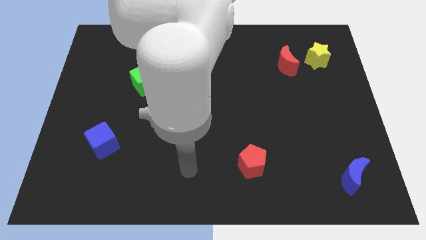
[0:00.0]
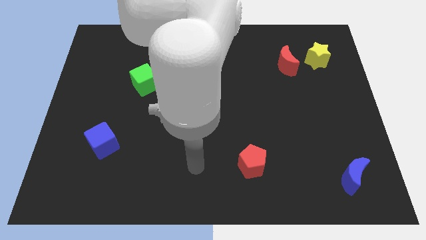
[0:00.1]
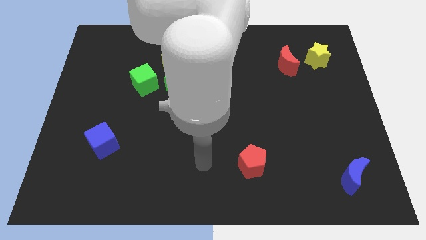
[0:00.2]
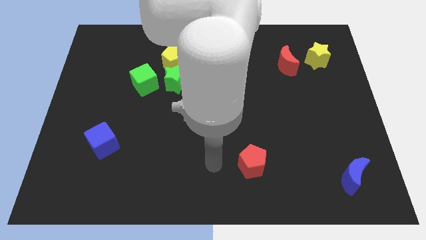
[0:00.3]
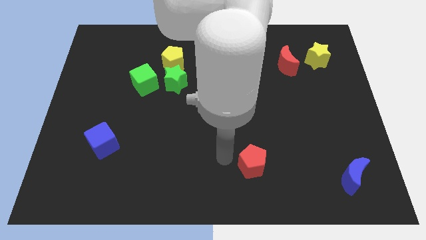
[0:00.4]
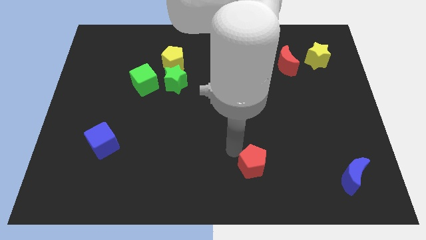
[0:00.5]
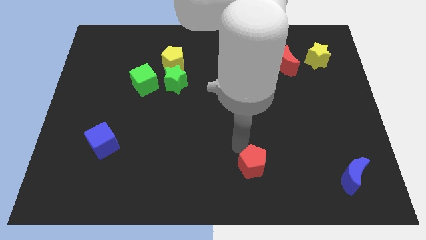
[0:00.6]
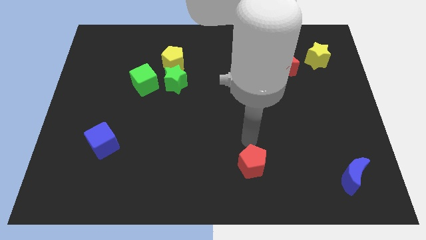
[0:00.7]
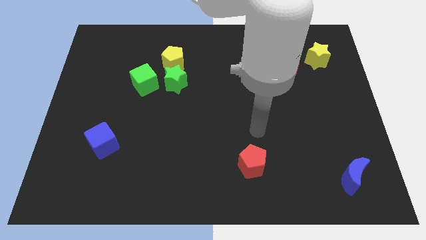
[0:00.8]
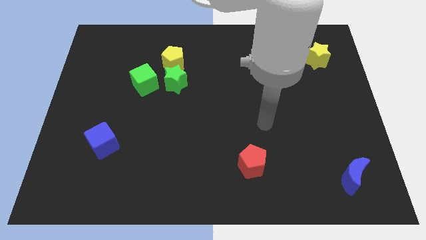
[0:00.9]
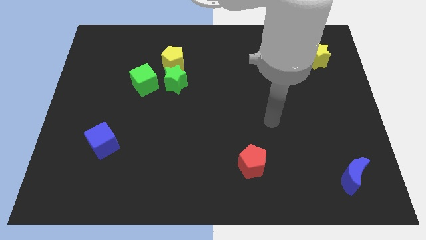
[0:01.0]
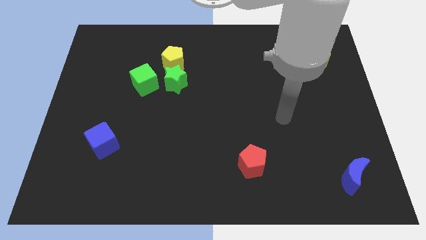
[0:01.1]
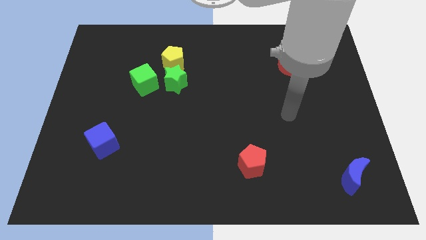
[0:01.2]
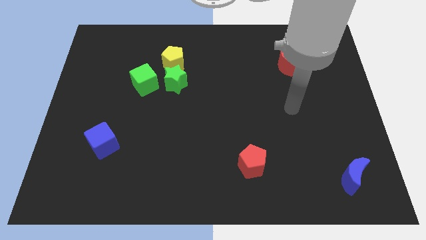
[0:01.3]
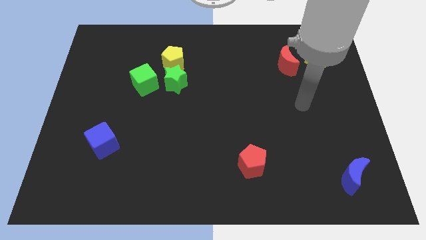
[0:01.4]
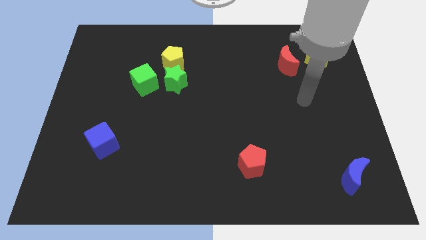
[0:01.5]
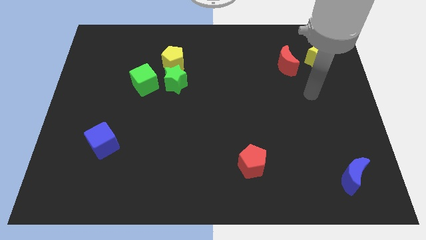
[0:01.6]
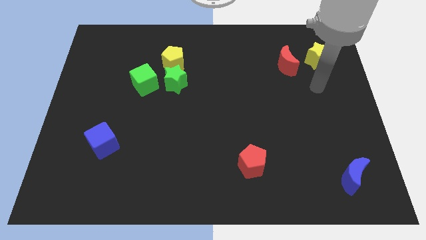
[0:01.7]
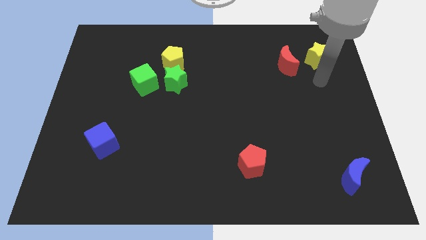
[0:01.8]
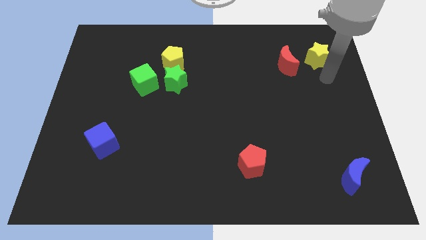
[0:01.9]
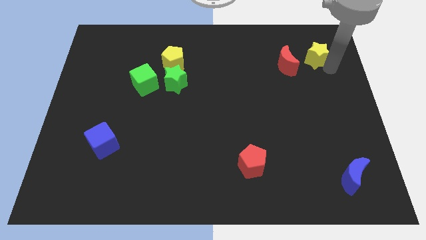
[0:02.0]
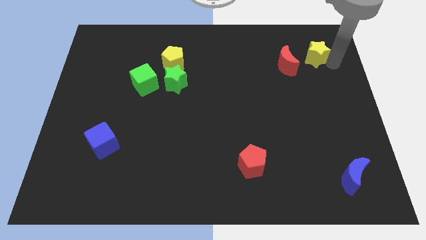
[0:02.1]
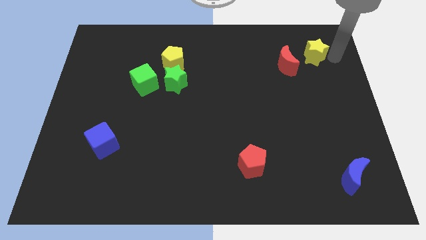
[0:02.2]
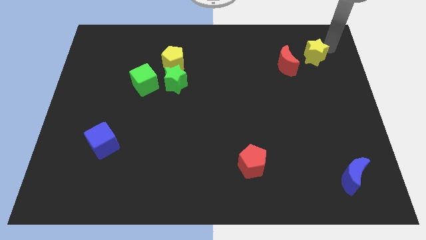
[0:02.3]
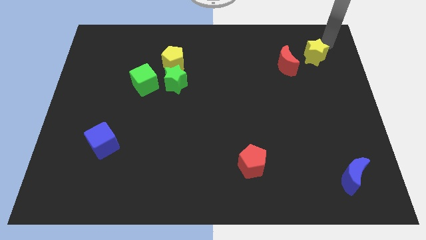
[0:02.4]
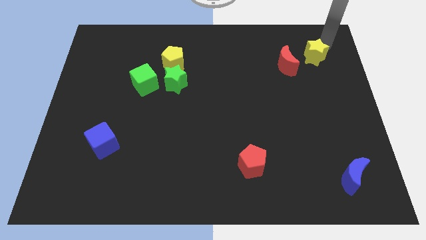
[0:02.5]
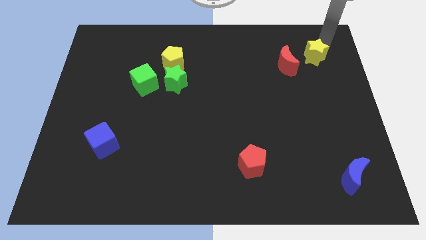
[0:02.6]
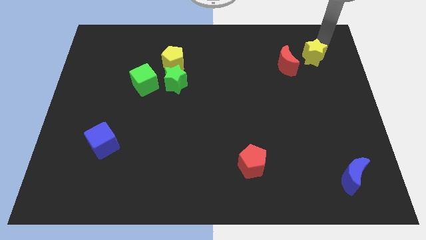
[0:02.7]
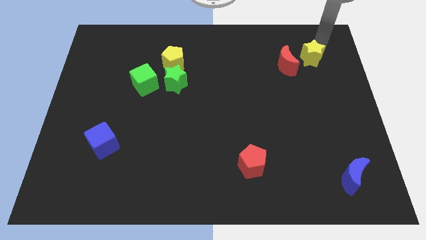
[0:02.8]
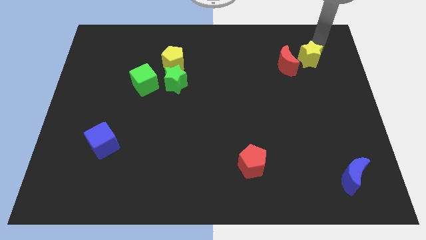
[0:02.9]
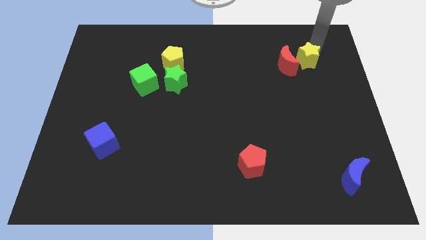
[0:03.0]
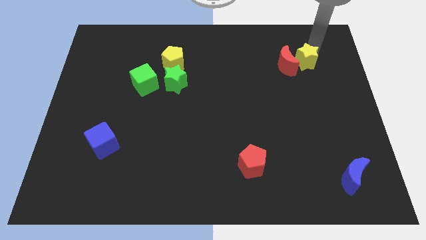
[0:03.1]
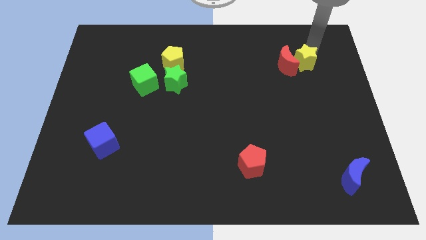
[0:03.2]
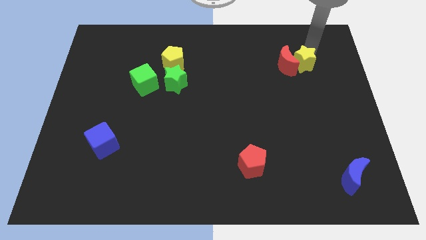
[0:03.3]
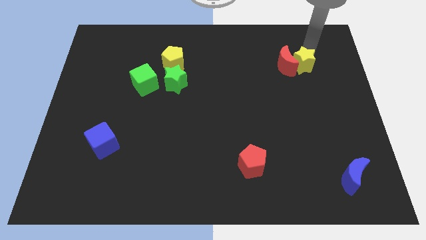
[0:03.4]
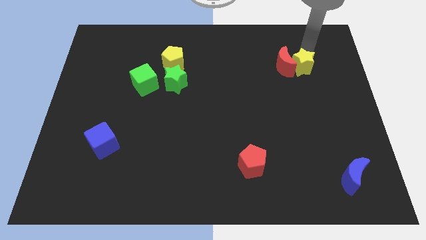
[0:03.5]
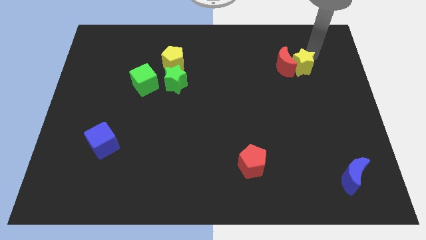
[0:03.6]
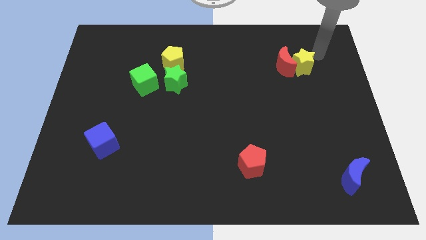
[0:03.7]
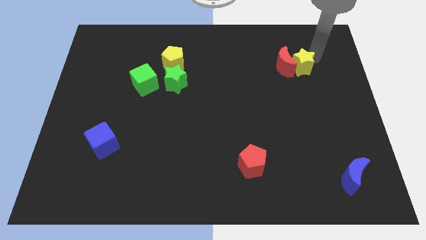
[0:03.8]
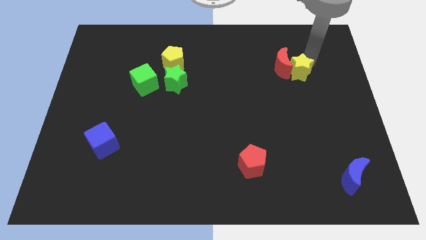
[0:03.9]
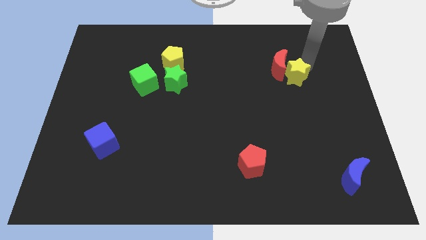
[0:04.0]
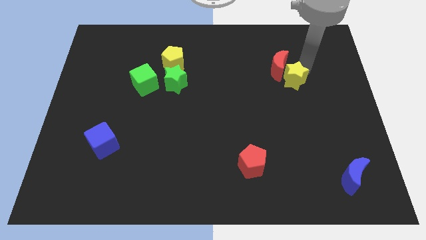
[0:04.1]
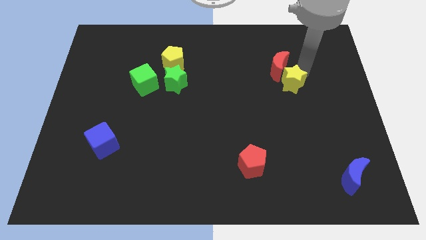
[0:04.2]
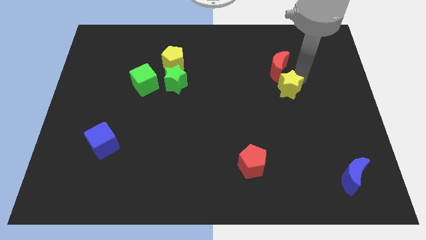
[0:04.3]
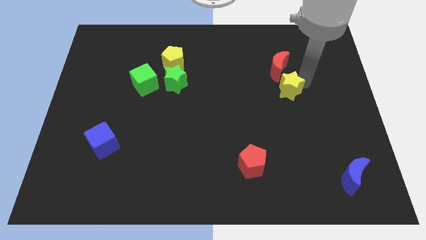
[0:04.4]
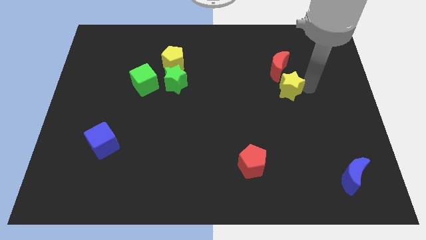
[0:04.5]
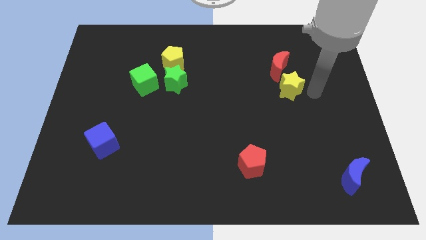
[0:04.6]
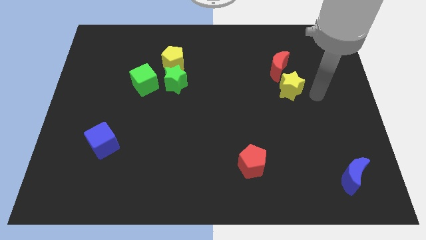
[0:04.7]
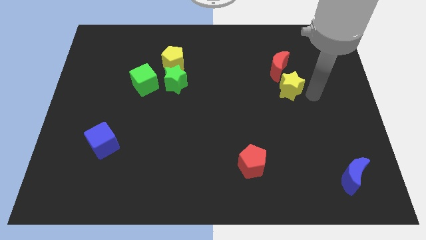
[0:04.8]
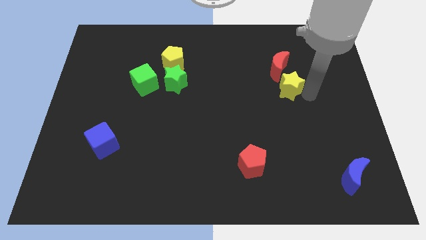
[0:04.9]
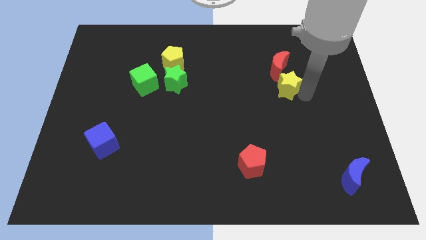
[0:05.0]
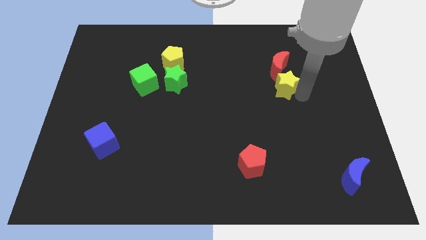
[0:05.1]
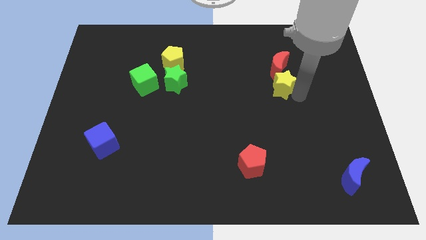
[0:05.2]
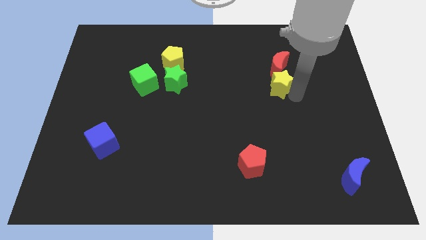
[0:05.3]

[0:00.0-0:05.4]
move the yellow star diagonally down and to the left of the red moon

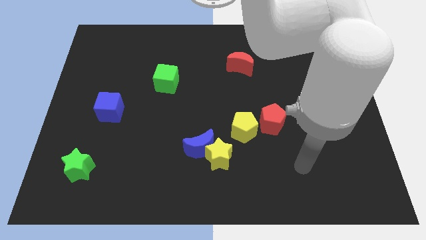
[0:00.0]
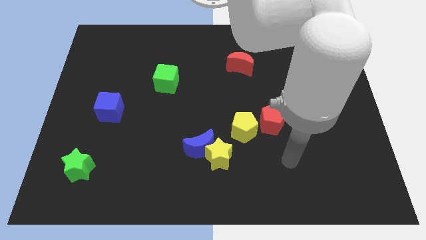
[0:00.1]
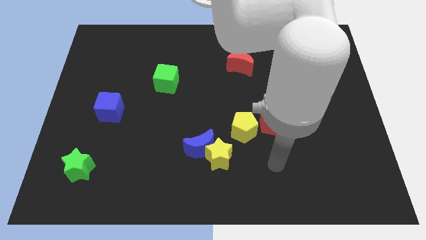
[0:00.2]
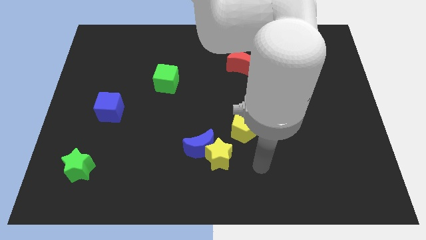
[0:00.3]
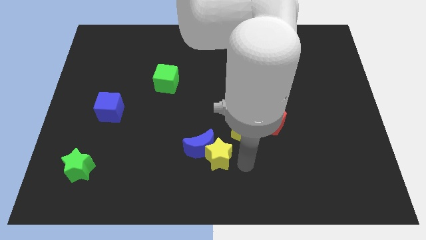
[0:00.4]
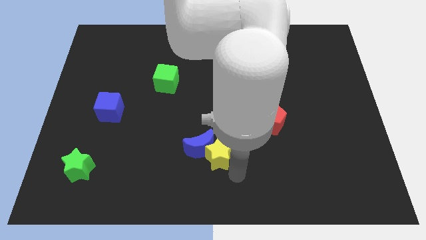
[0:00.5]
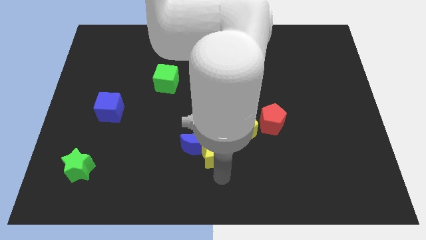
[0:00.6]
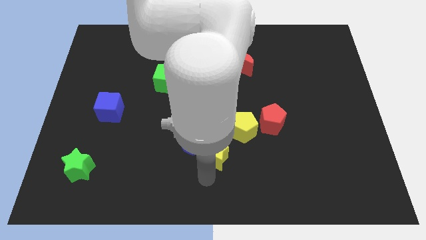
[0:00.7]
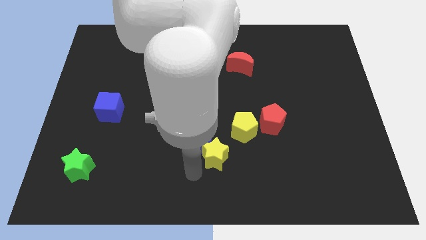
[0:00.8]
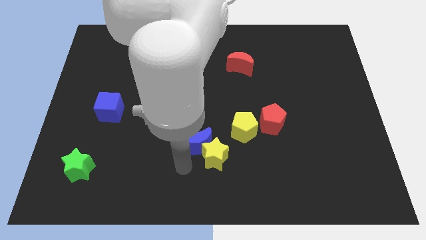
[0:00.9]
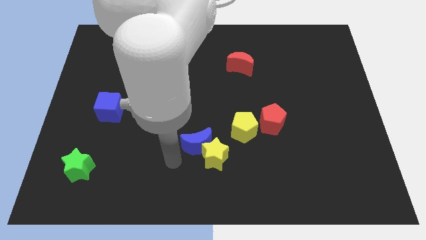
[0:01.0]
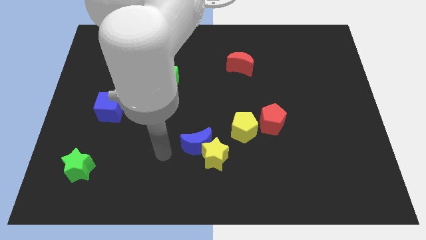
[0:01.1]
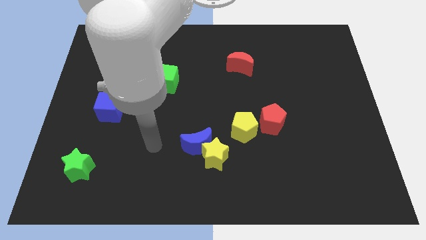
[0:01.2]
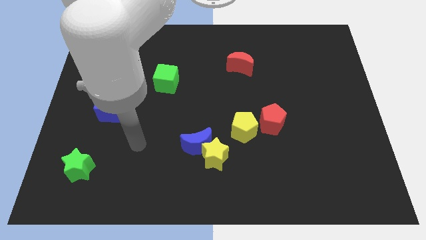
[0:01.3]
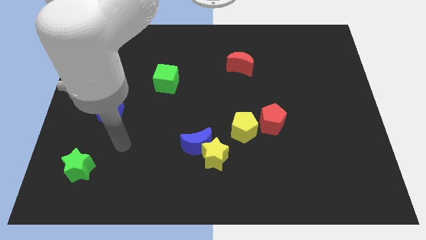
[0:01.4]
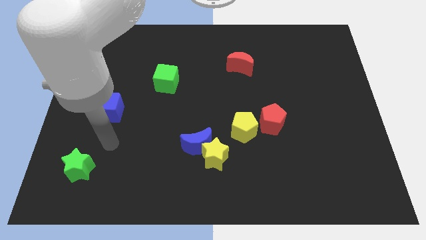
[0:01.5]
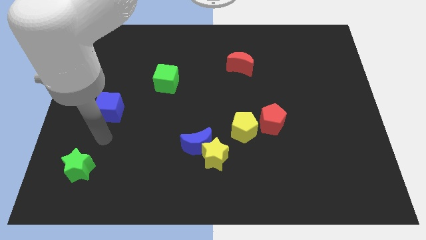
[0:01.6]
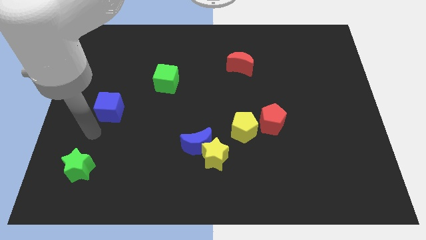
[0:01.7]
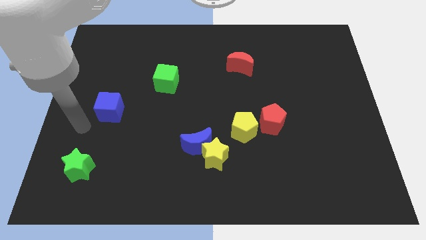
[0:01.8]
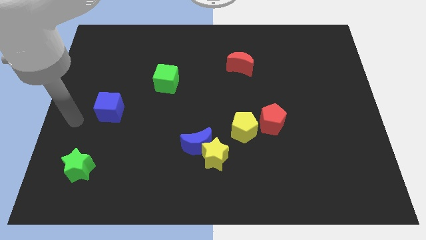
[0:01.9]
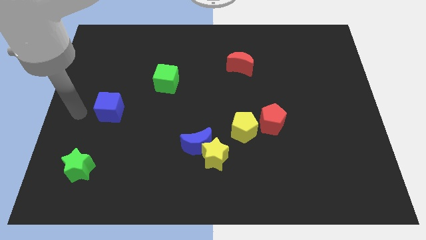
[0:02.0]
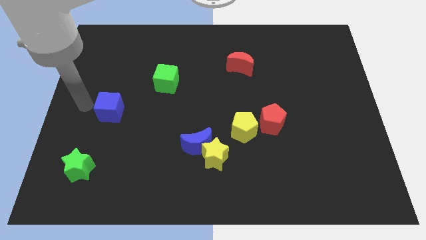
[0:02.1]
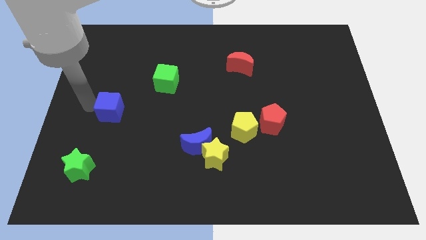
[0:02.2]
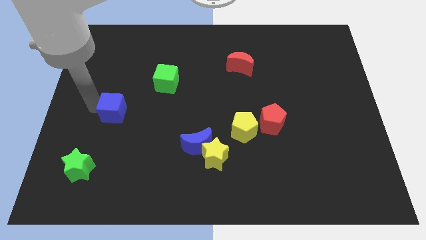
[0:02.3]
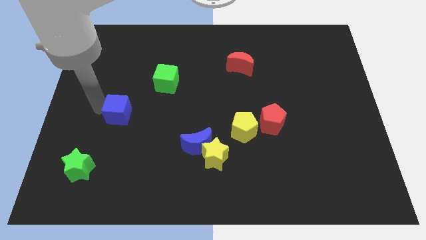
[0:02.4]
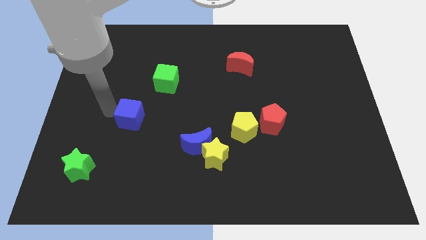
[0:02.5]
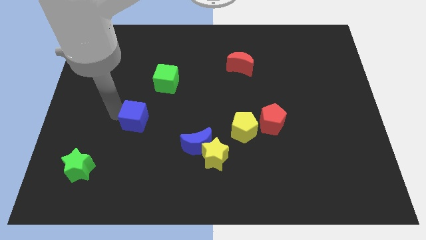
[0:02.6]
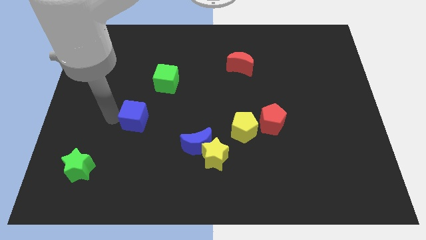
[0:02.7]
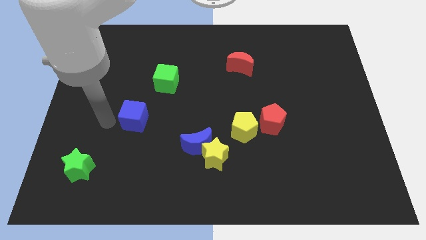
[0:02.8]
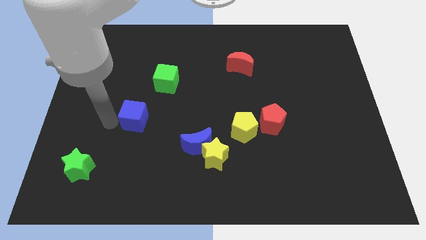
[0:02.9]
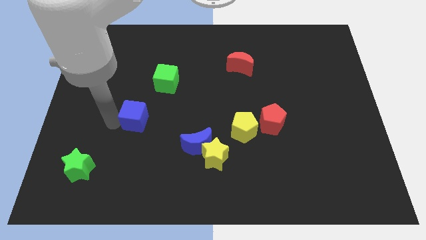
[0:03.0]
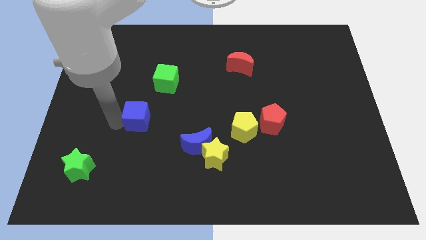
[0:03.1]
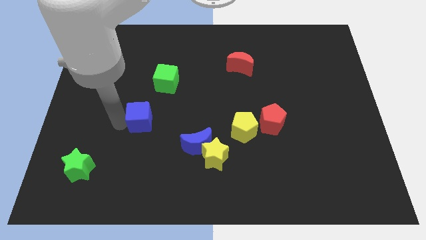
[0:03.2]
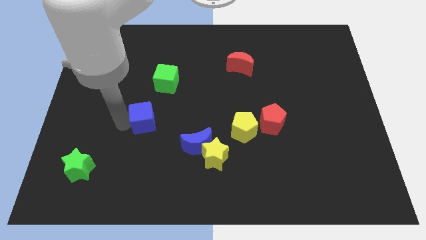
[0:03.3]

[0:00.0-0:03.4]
push the blue cube to the bottom side of the green cube
